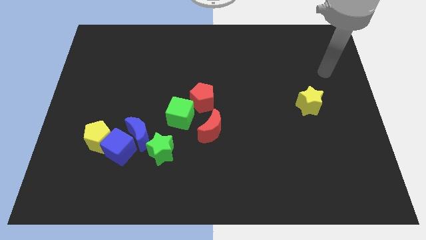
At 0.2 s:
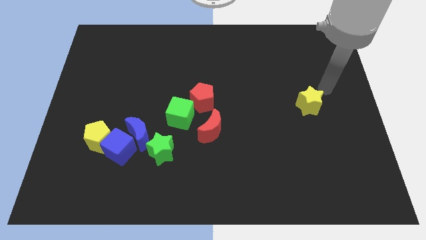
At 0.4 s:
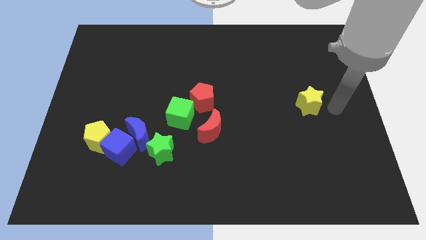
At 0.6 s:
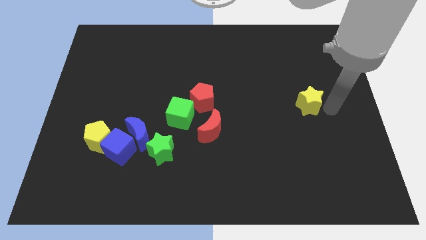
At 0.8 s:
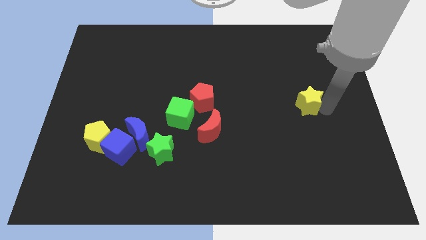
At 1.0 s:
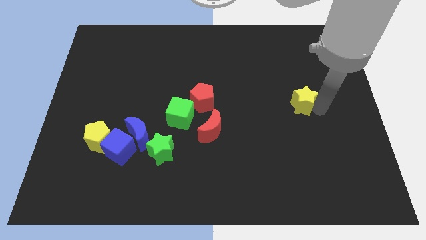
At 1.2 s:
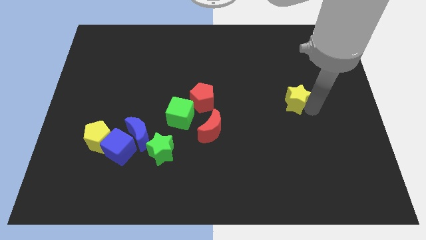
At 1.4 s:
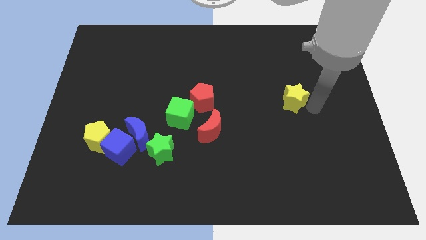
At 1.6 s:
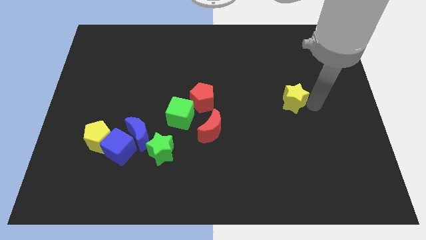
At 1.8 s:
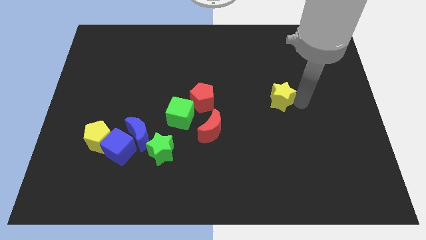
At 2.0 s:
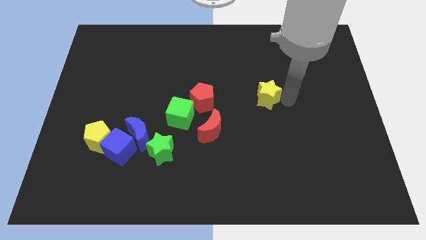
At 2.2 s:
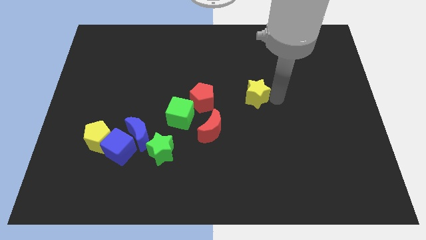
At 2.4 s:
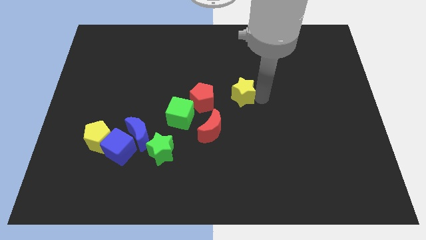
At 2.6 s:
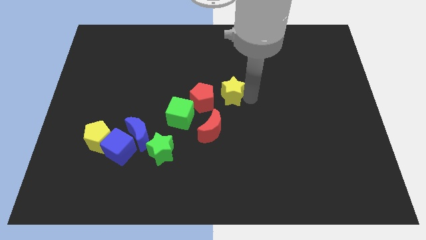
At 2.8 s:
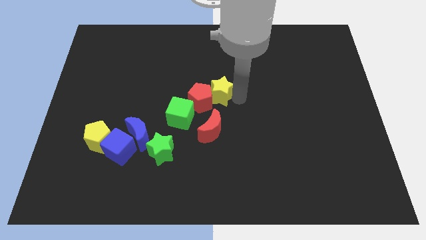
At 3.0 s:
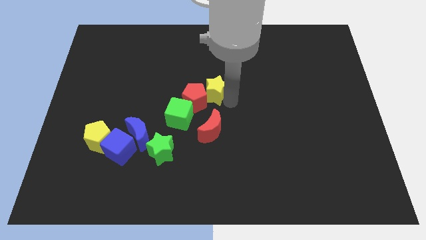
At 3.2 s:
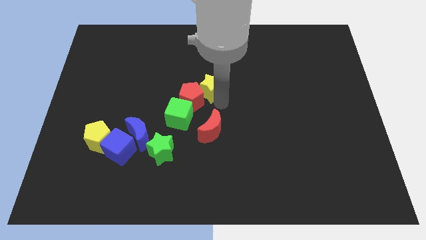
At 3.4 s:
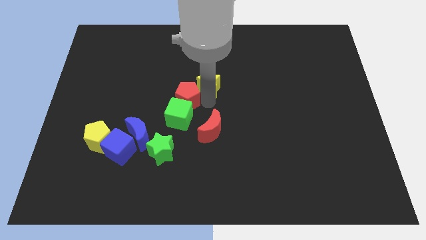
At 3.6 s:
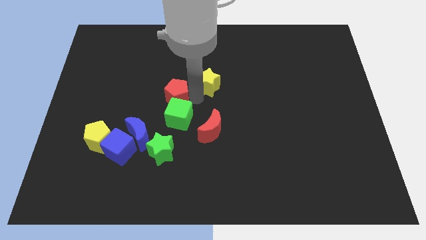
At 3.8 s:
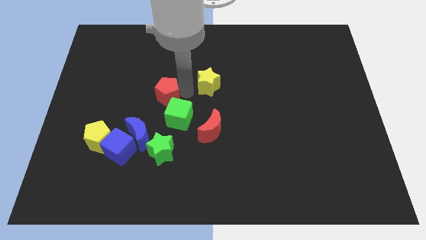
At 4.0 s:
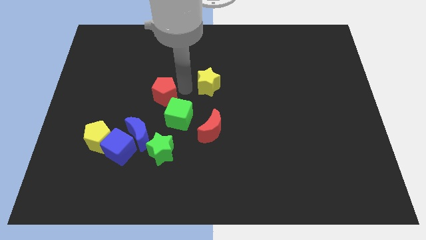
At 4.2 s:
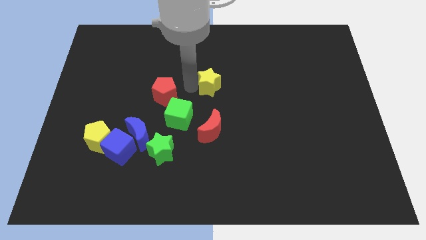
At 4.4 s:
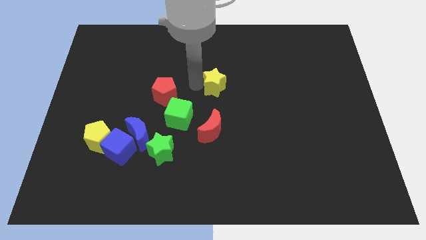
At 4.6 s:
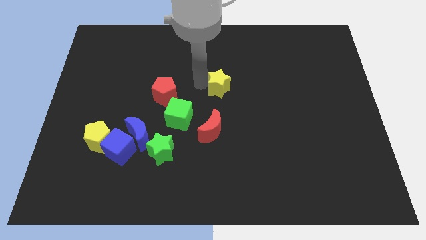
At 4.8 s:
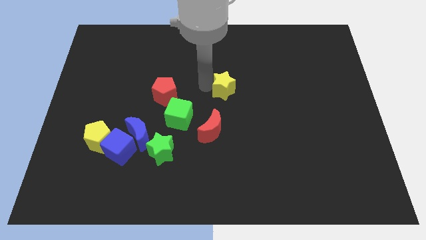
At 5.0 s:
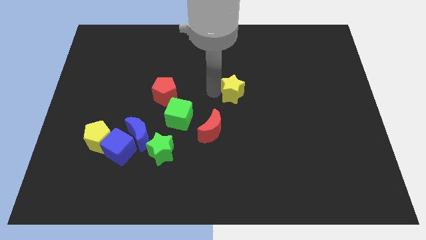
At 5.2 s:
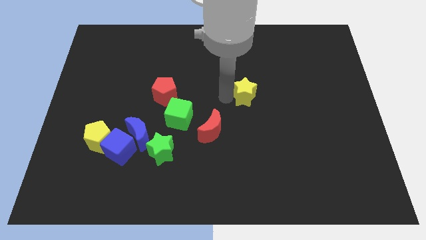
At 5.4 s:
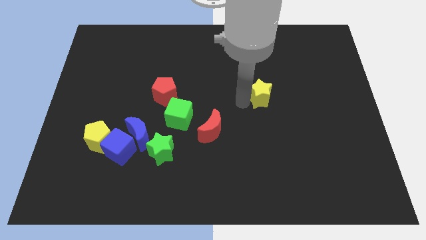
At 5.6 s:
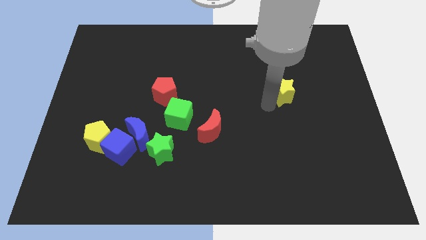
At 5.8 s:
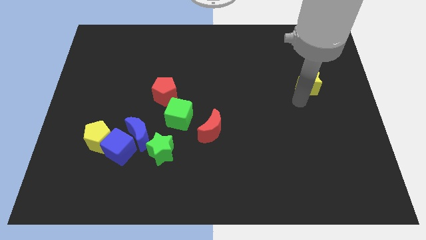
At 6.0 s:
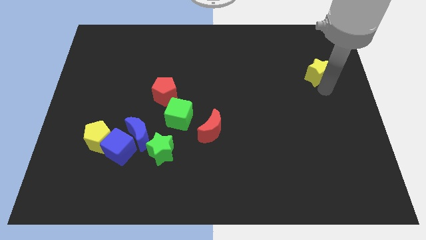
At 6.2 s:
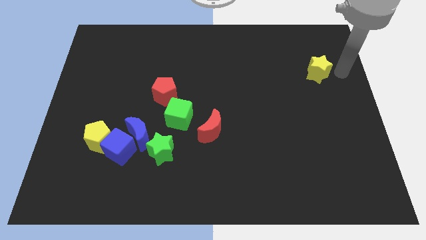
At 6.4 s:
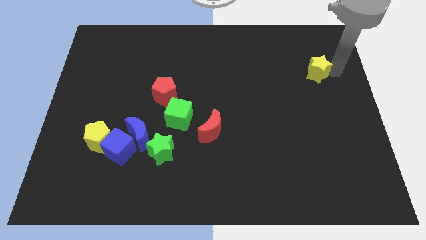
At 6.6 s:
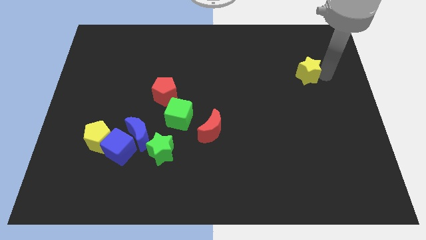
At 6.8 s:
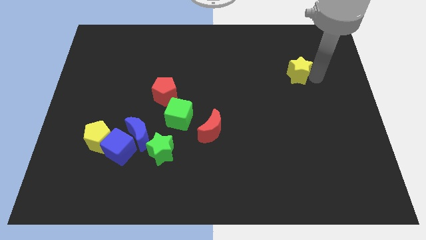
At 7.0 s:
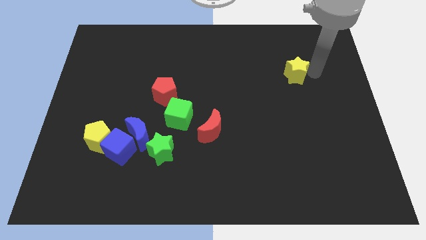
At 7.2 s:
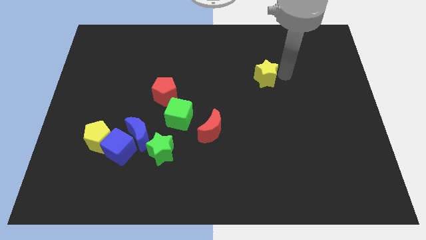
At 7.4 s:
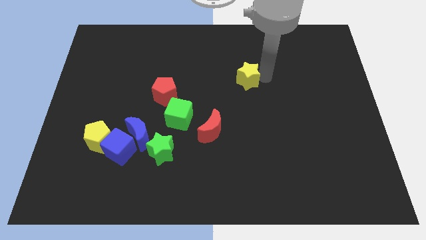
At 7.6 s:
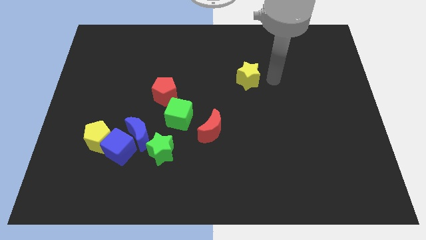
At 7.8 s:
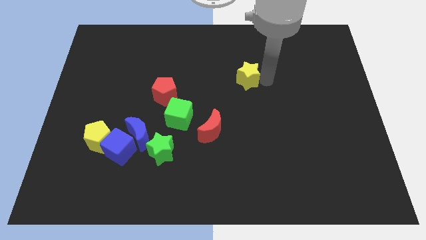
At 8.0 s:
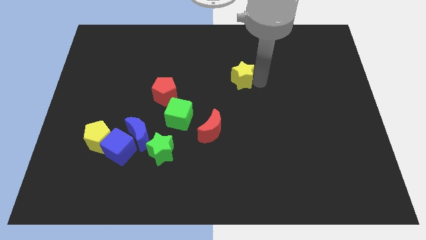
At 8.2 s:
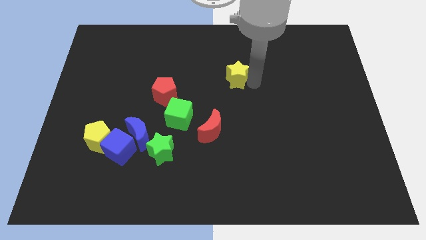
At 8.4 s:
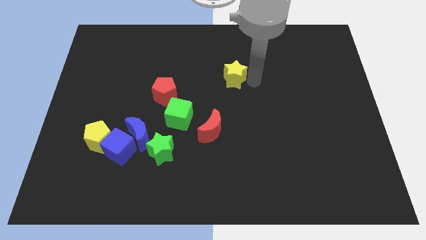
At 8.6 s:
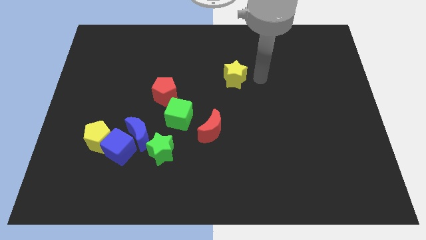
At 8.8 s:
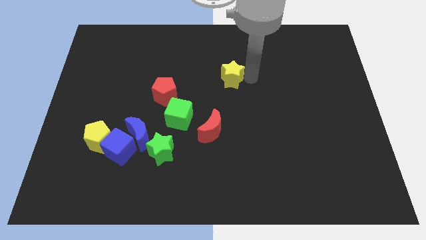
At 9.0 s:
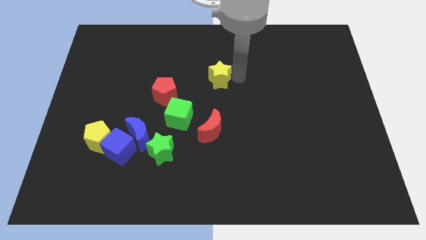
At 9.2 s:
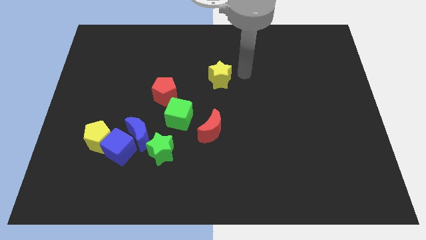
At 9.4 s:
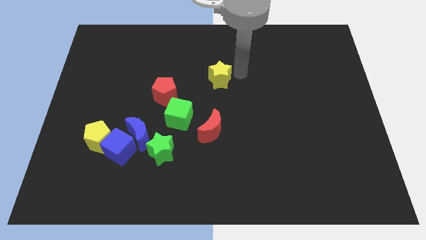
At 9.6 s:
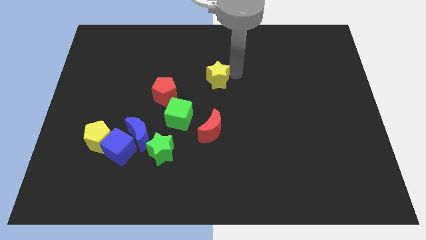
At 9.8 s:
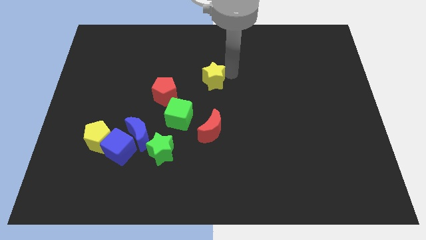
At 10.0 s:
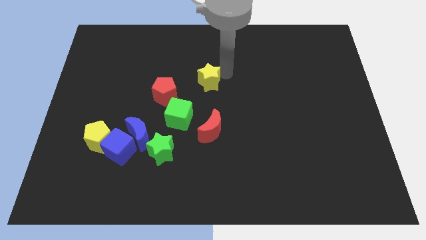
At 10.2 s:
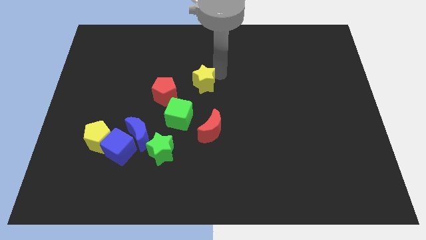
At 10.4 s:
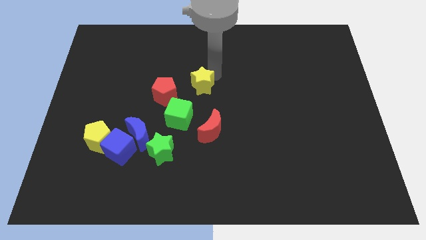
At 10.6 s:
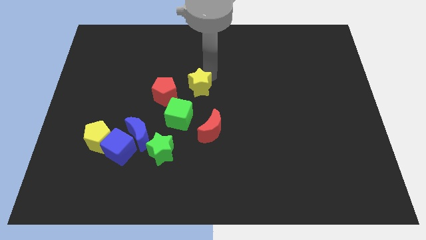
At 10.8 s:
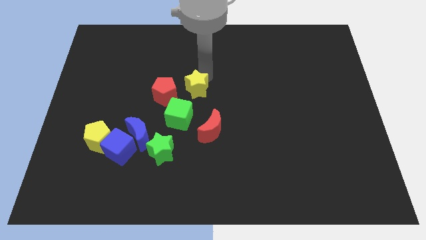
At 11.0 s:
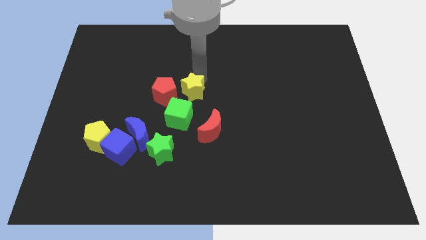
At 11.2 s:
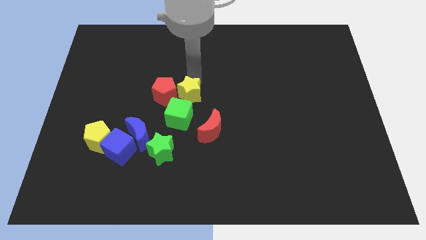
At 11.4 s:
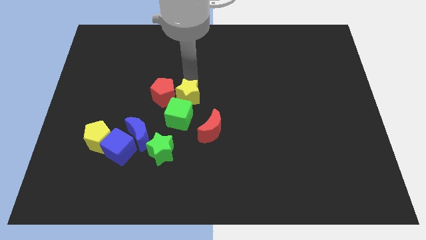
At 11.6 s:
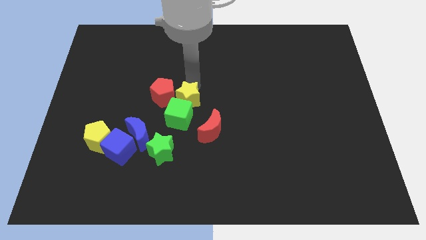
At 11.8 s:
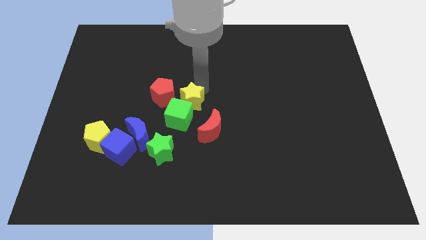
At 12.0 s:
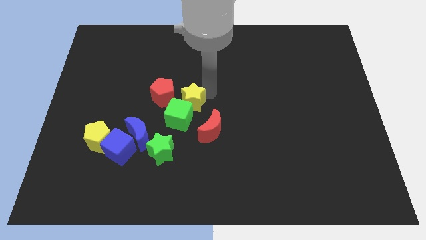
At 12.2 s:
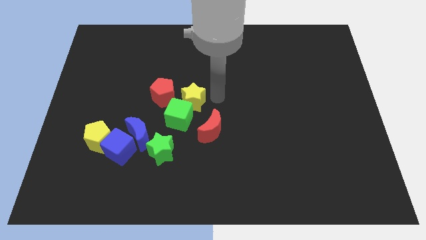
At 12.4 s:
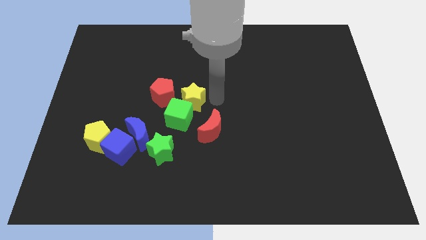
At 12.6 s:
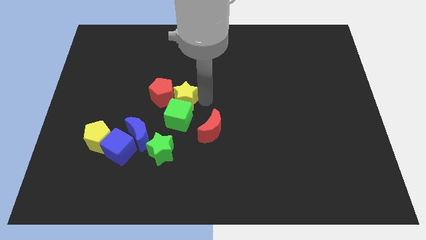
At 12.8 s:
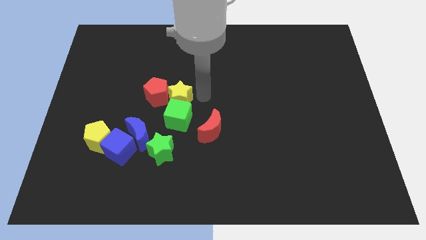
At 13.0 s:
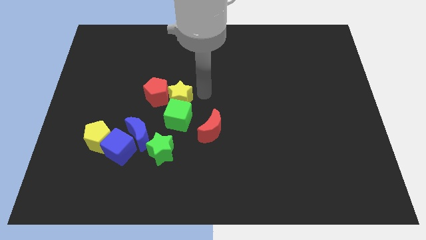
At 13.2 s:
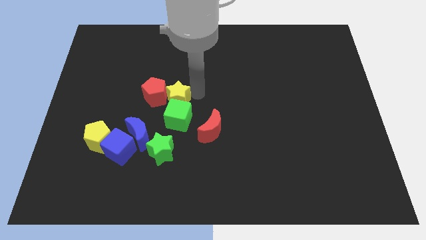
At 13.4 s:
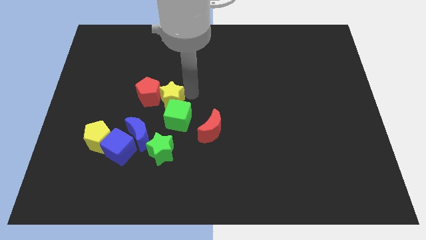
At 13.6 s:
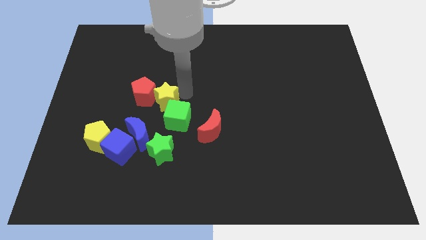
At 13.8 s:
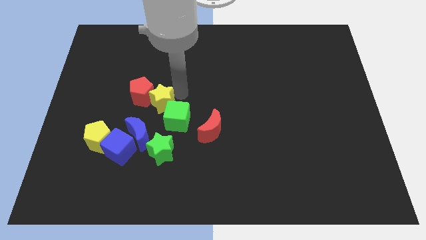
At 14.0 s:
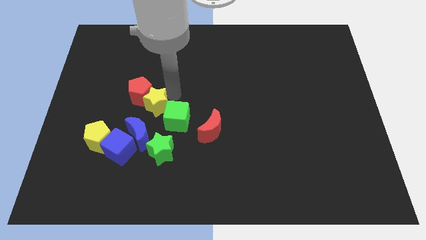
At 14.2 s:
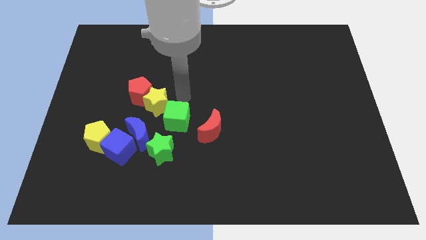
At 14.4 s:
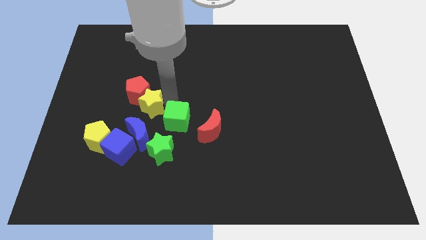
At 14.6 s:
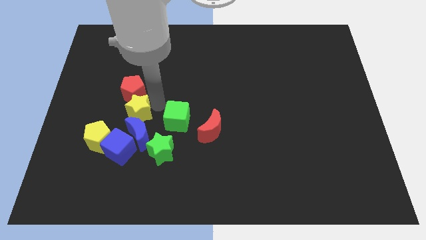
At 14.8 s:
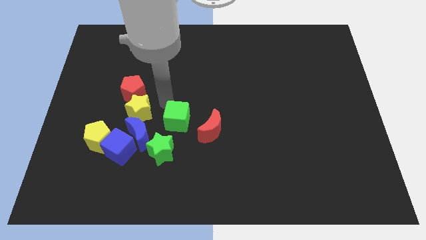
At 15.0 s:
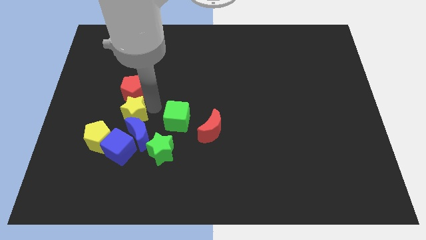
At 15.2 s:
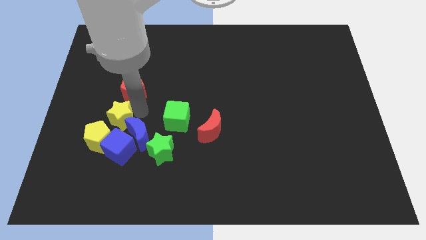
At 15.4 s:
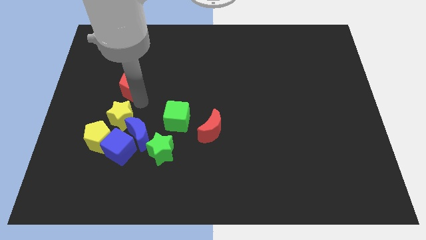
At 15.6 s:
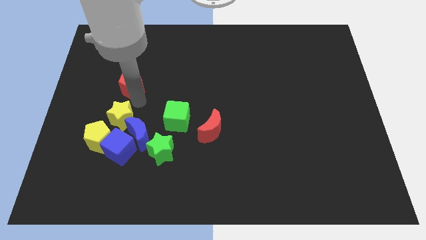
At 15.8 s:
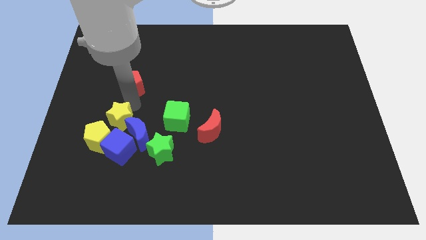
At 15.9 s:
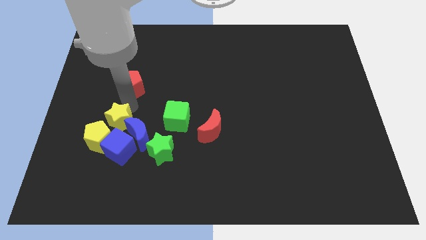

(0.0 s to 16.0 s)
push the yellow star close to the yellow pentagon

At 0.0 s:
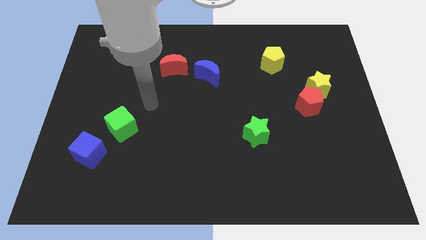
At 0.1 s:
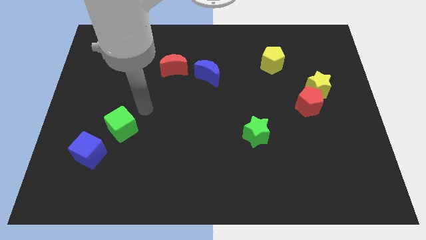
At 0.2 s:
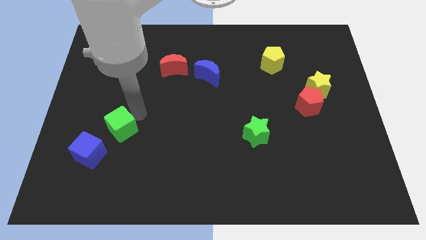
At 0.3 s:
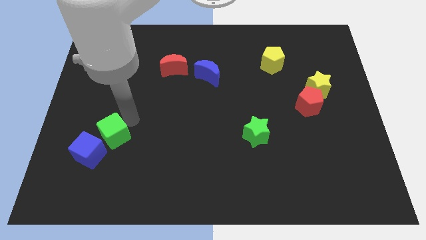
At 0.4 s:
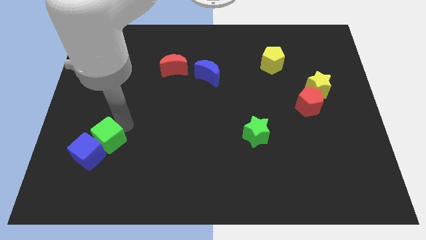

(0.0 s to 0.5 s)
slide the green cube towards the blue cube
